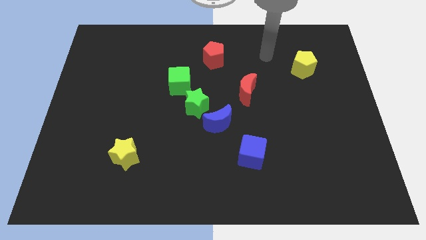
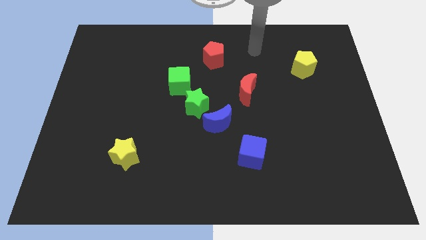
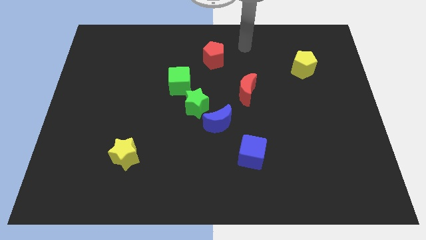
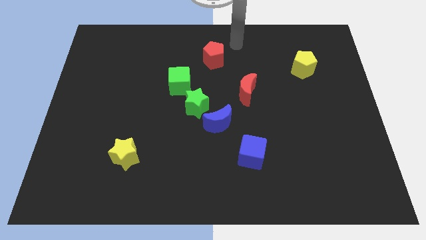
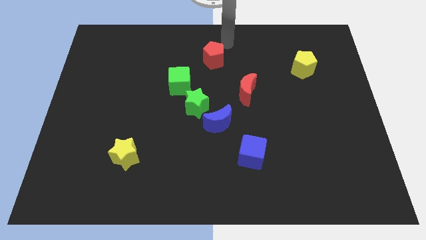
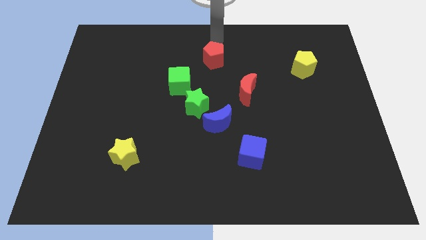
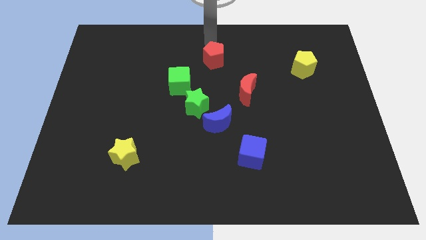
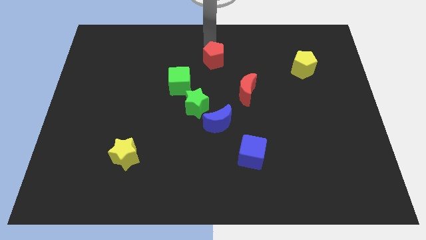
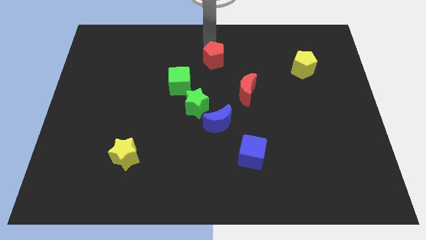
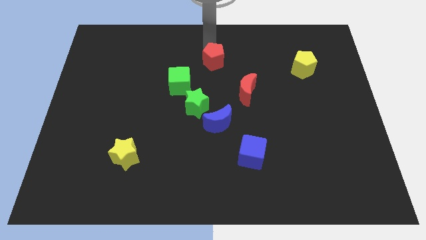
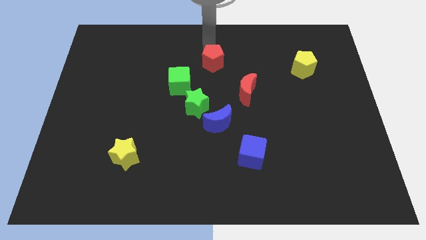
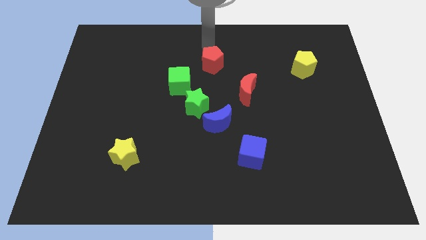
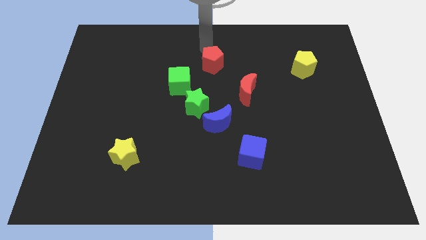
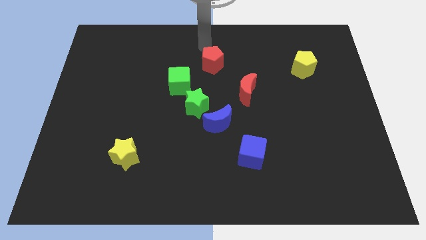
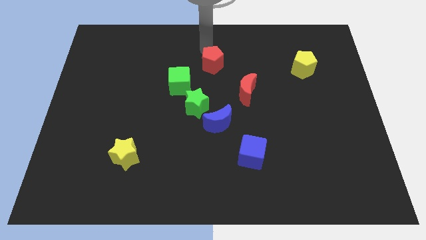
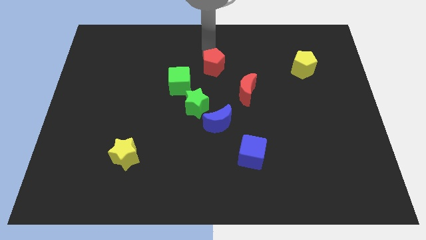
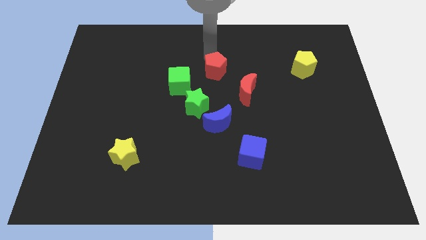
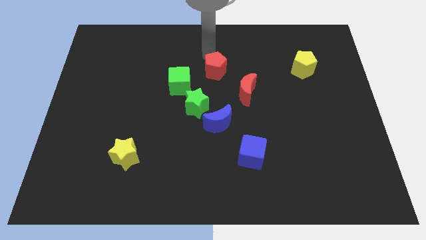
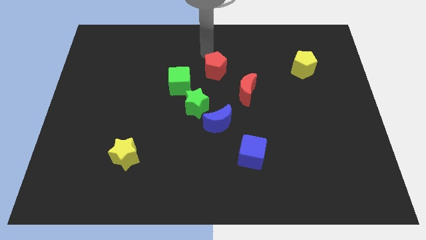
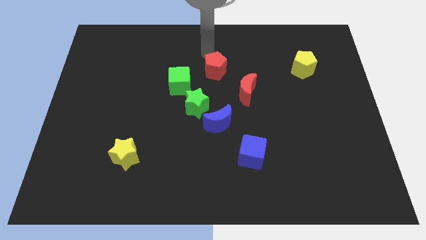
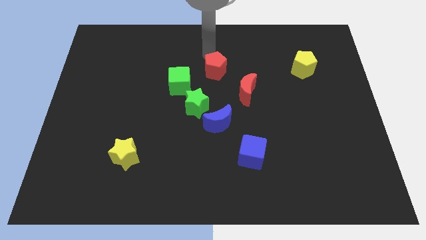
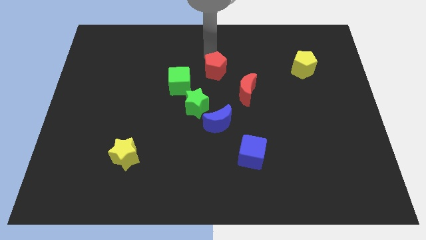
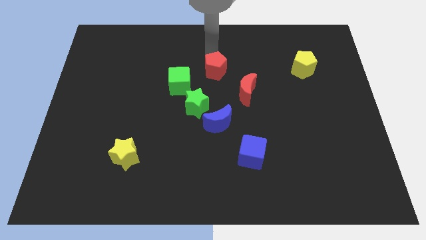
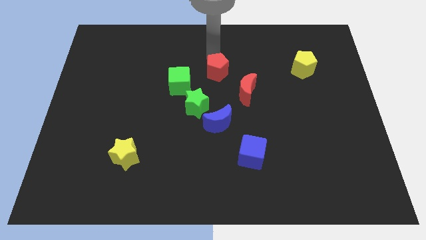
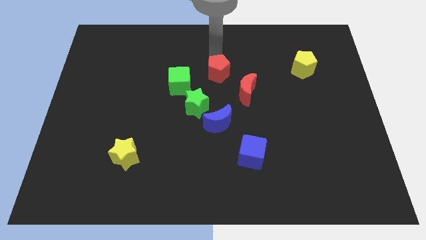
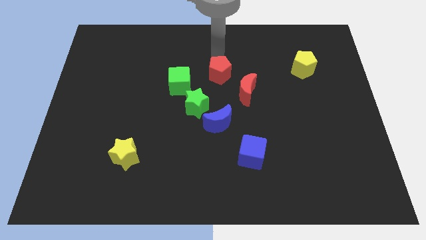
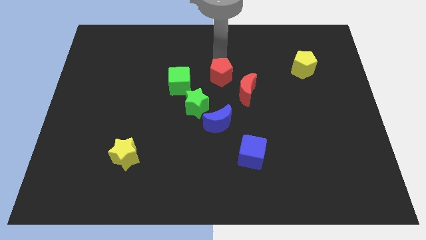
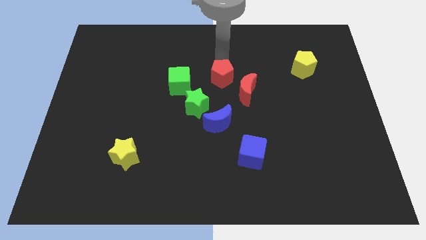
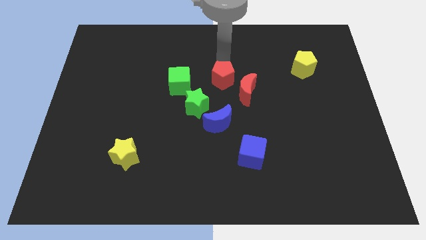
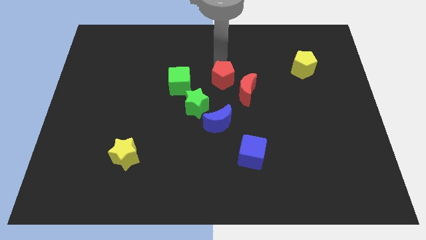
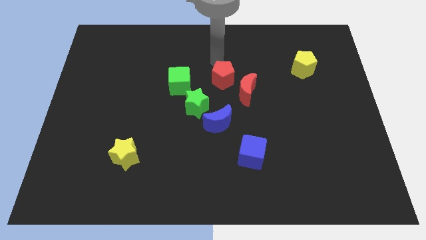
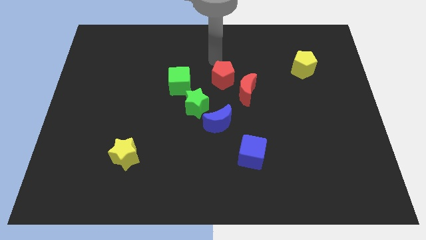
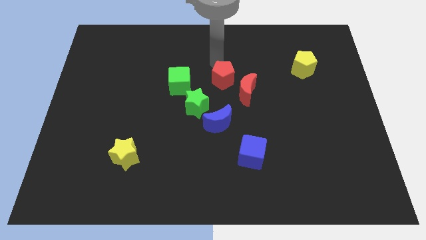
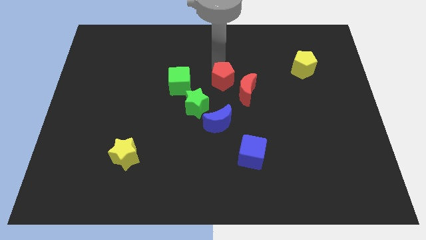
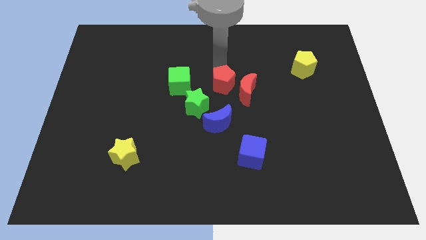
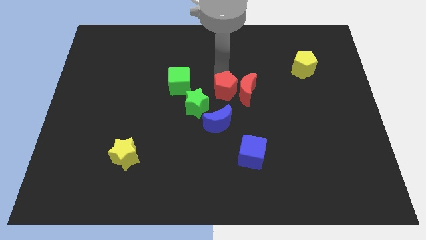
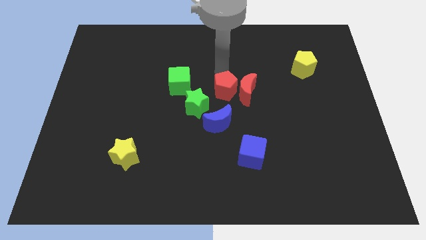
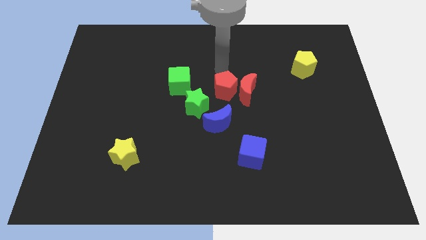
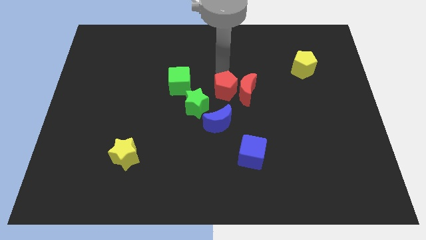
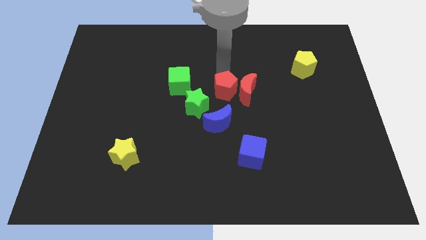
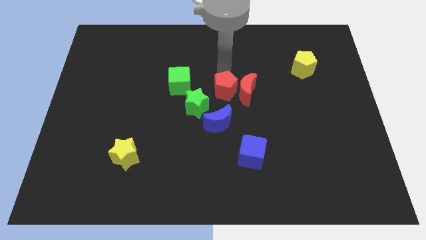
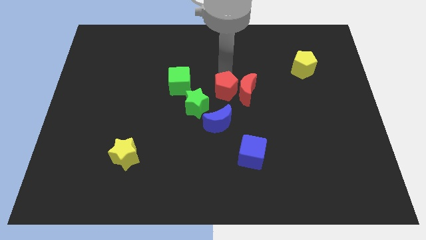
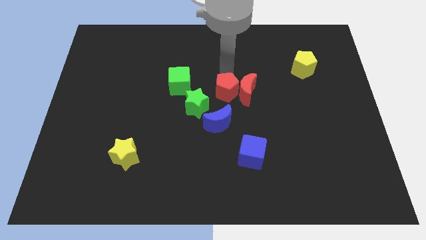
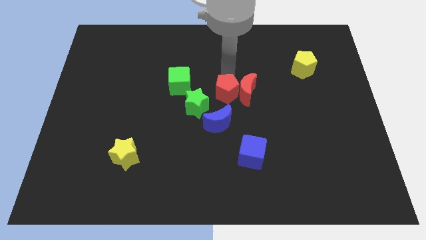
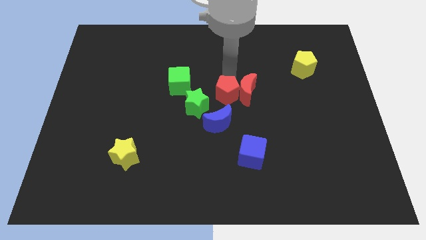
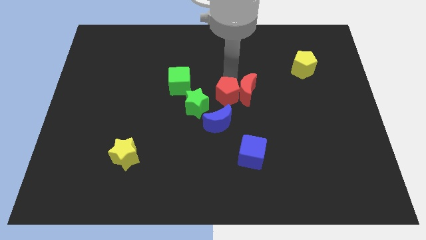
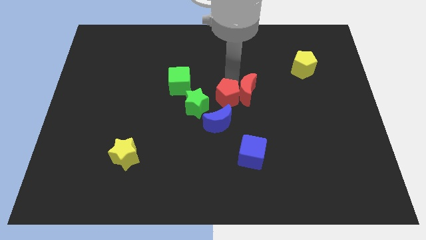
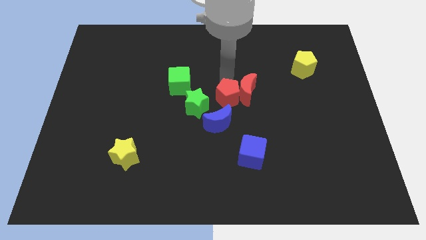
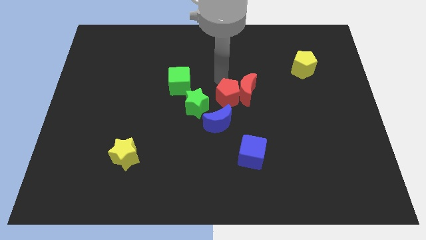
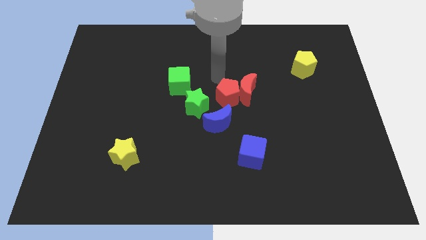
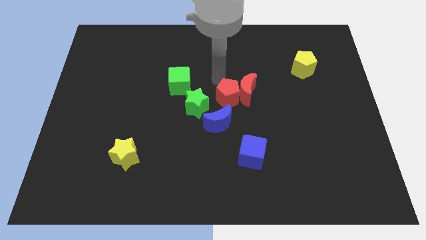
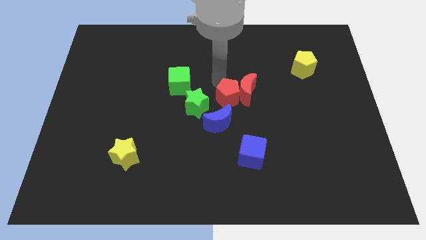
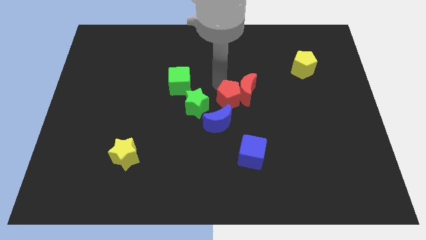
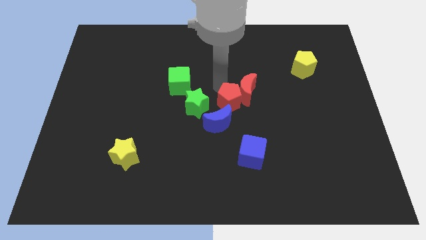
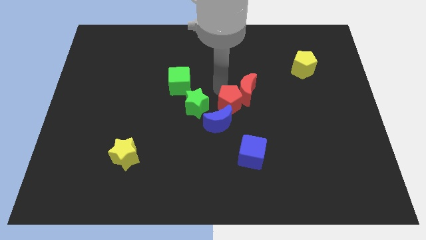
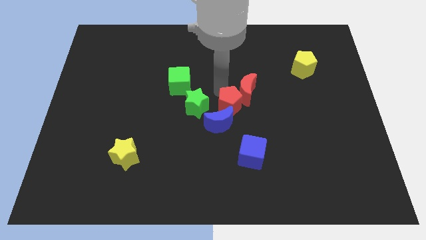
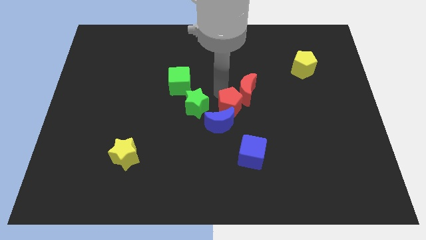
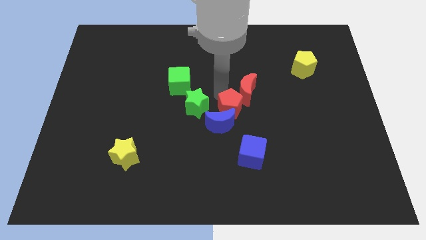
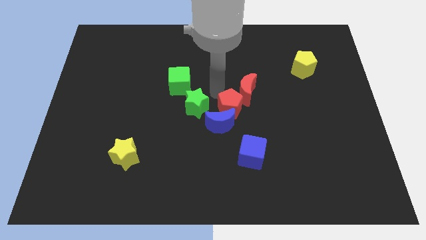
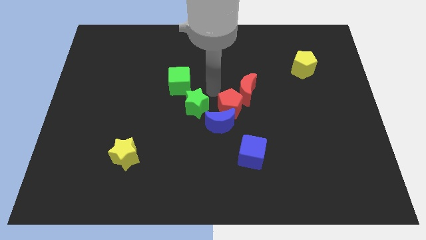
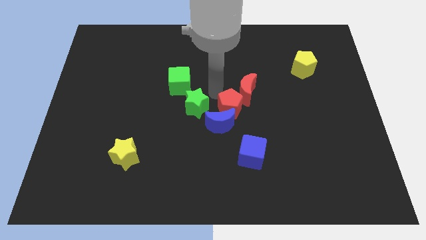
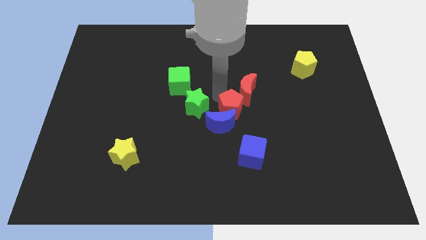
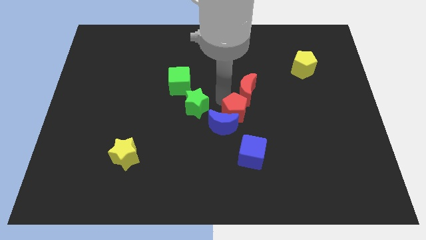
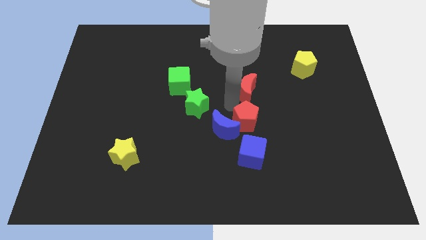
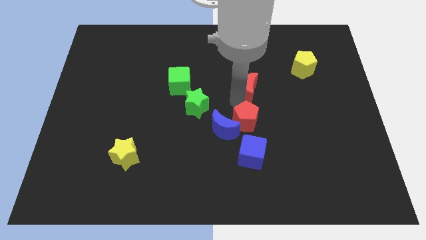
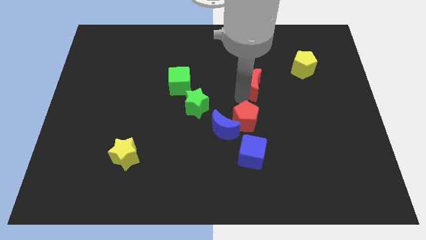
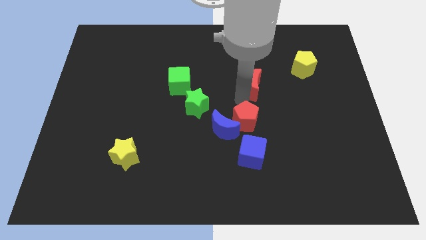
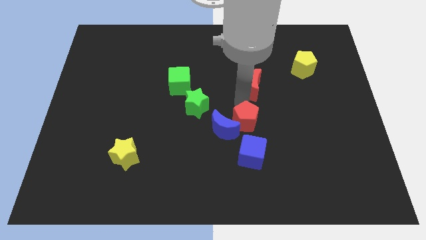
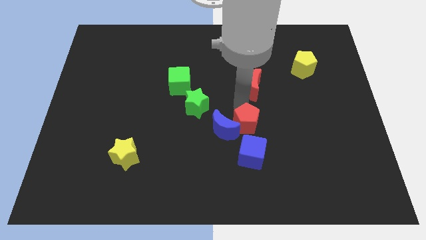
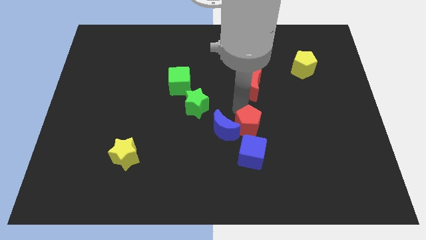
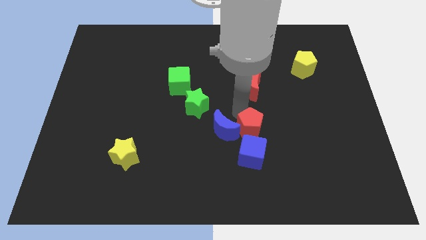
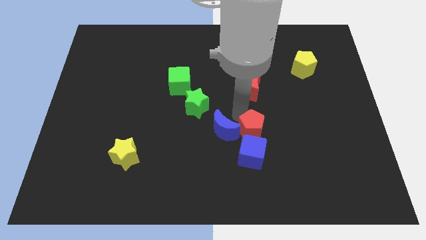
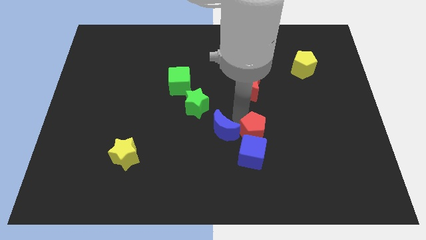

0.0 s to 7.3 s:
slide the red pentagon close to the blue cube
